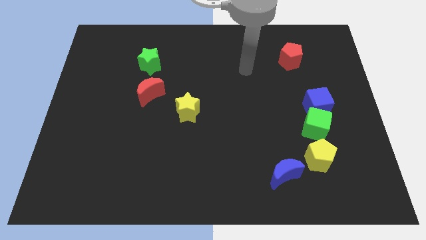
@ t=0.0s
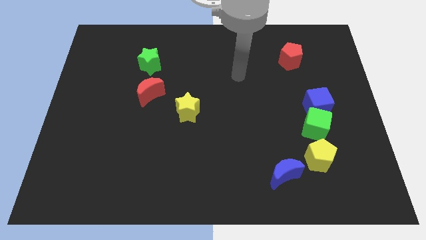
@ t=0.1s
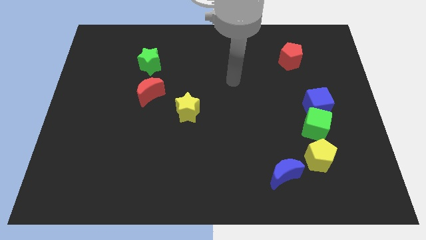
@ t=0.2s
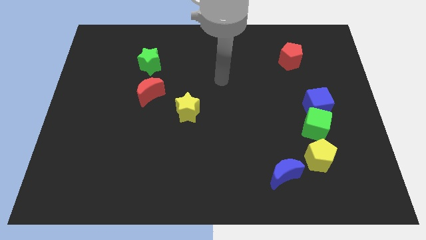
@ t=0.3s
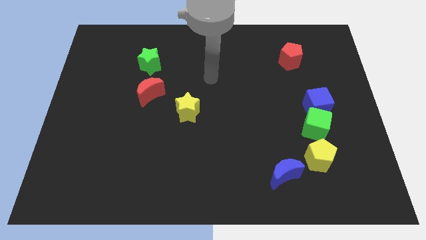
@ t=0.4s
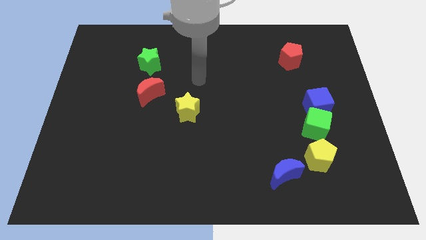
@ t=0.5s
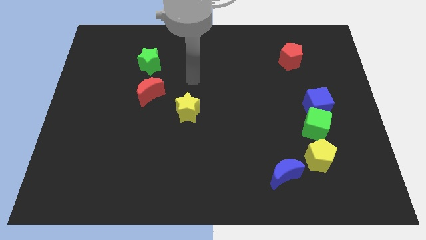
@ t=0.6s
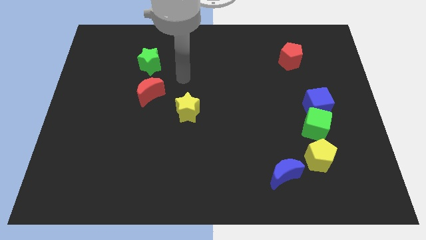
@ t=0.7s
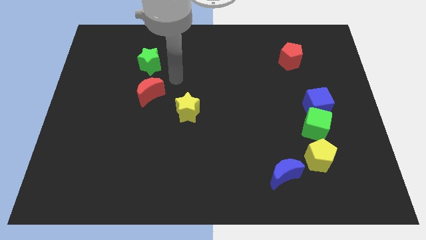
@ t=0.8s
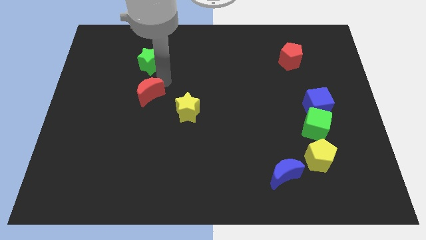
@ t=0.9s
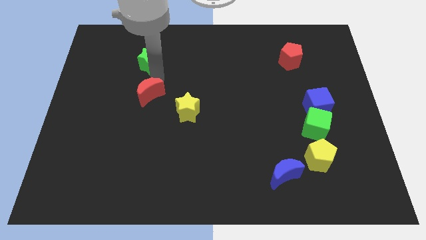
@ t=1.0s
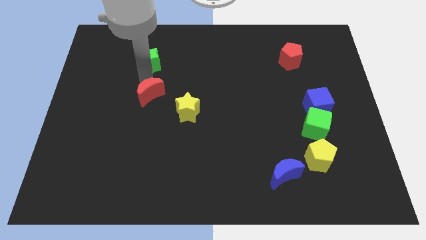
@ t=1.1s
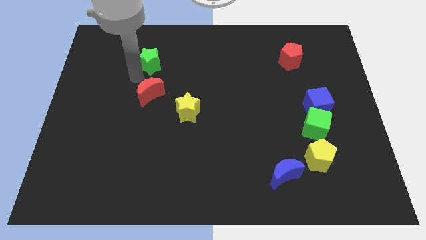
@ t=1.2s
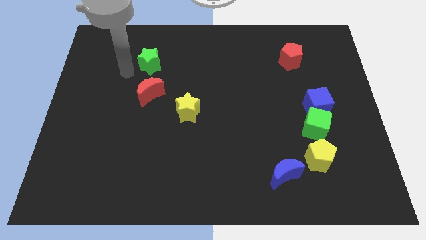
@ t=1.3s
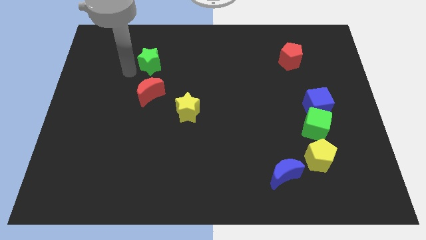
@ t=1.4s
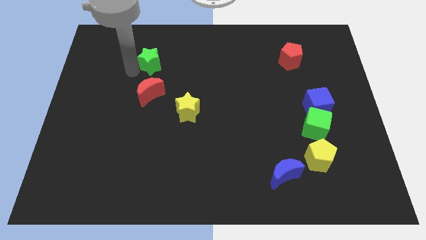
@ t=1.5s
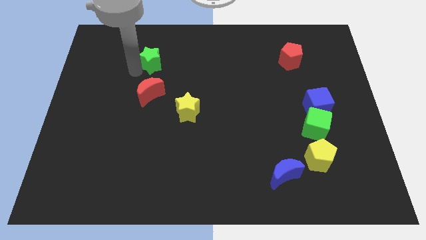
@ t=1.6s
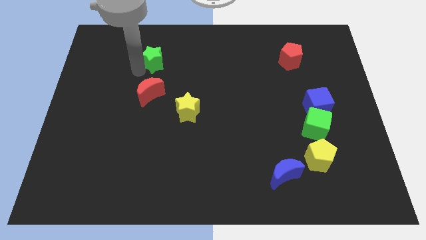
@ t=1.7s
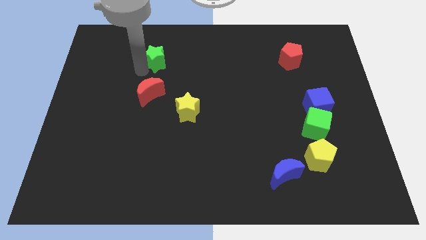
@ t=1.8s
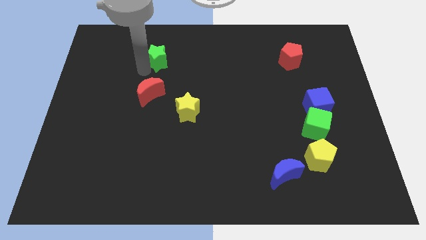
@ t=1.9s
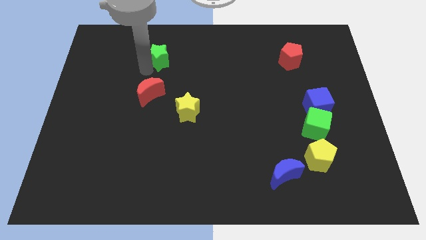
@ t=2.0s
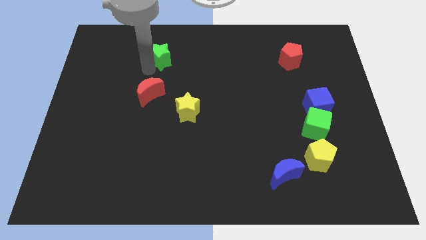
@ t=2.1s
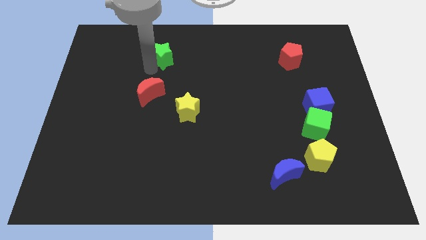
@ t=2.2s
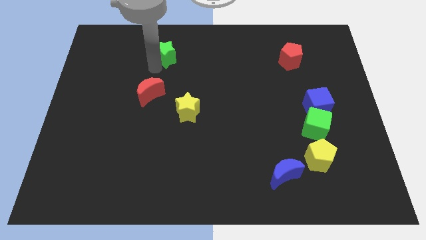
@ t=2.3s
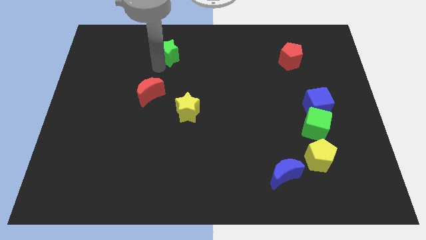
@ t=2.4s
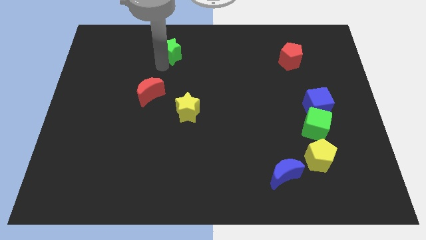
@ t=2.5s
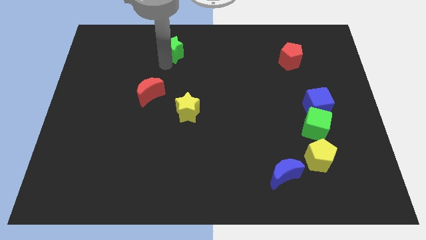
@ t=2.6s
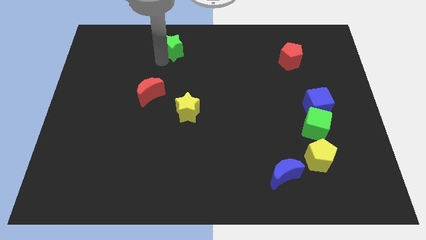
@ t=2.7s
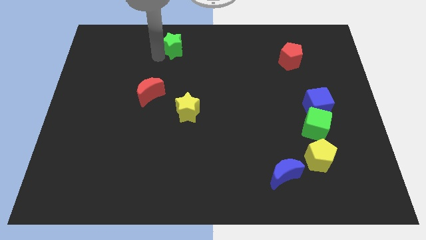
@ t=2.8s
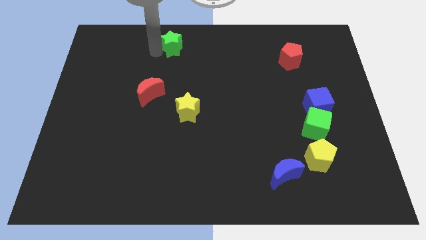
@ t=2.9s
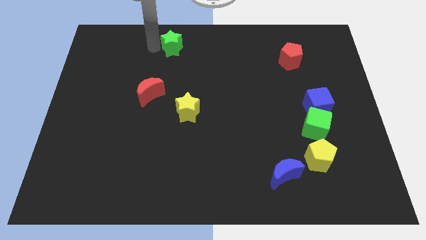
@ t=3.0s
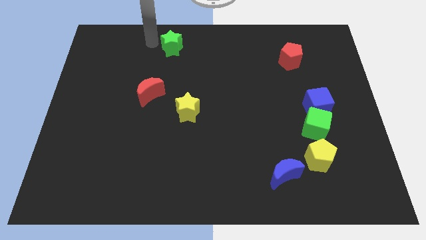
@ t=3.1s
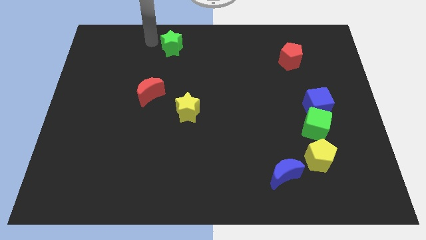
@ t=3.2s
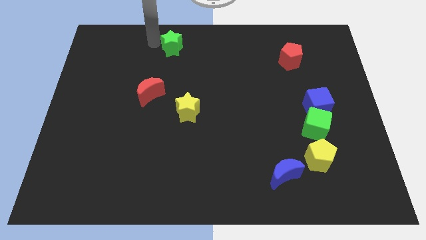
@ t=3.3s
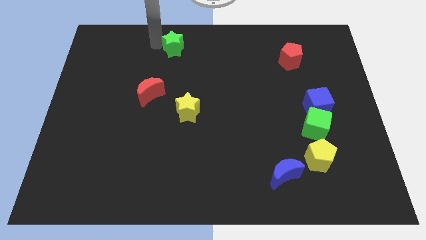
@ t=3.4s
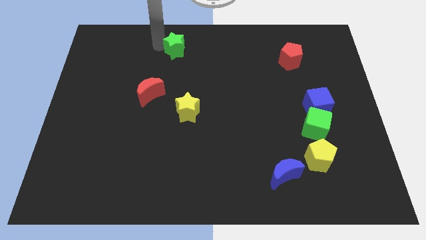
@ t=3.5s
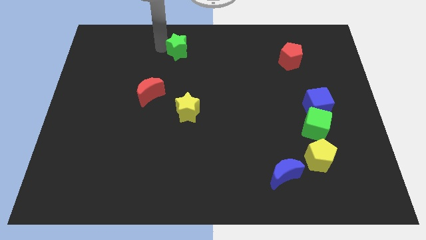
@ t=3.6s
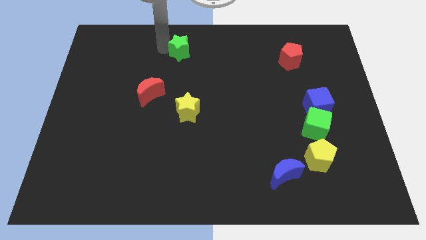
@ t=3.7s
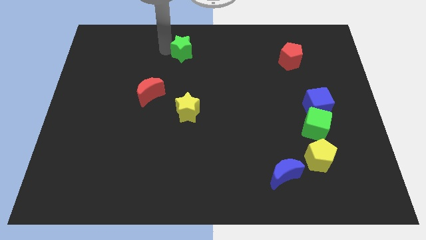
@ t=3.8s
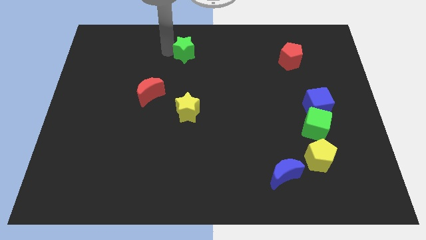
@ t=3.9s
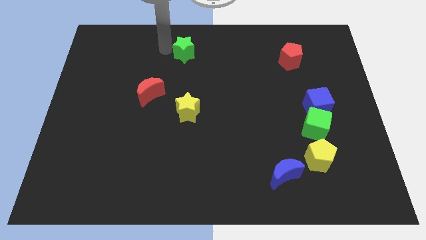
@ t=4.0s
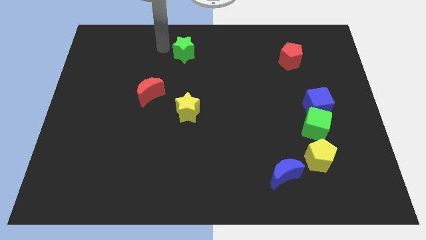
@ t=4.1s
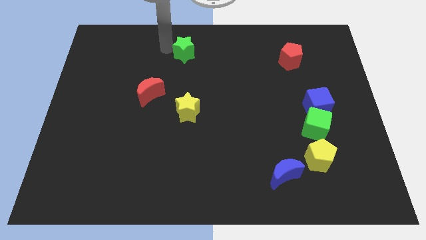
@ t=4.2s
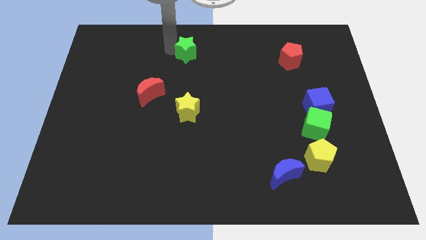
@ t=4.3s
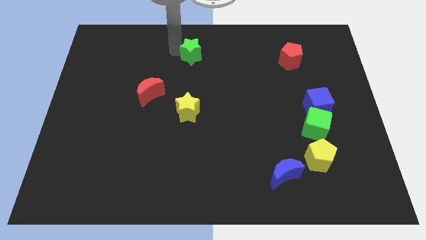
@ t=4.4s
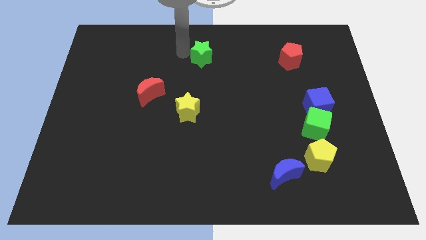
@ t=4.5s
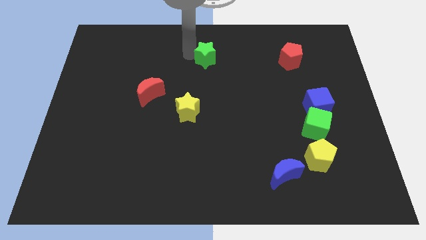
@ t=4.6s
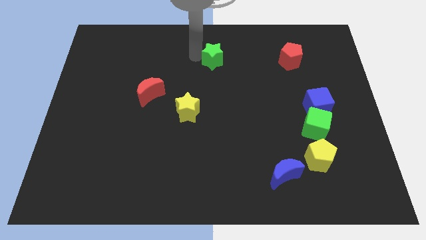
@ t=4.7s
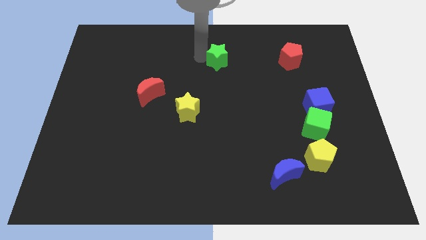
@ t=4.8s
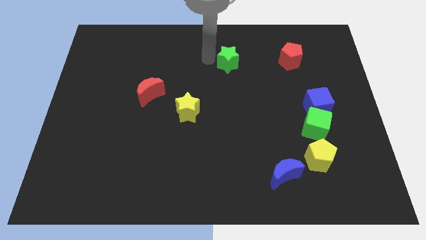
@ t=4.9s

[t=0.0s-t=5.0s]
slide the green star to the right

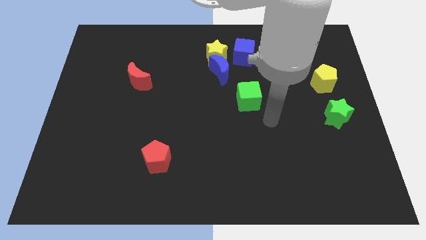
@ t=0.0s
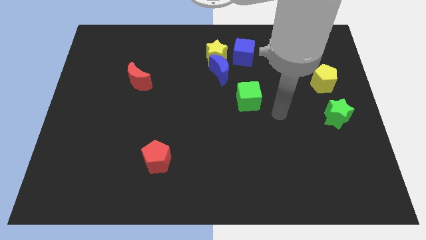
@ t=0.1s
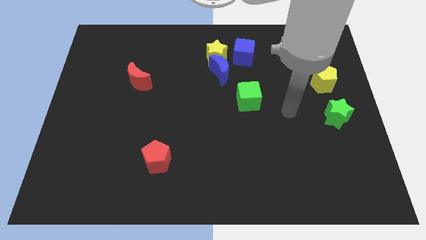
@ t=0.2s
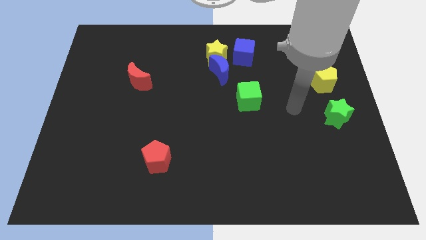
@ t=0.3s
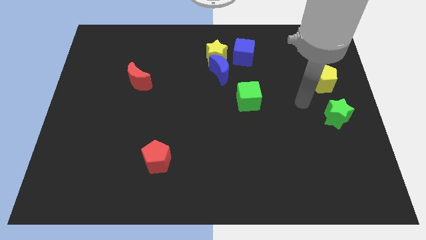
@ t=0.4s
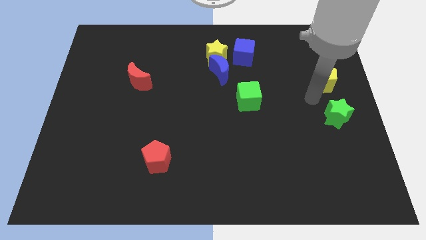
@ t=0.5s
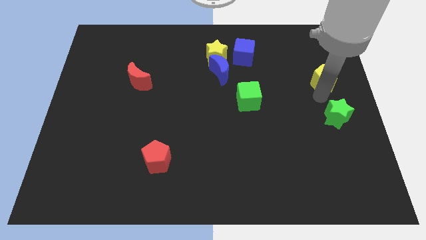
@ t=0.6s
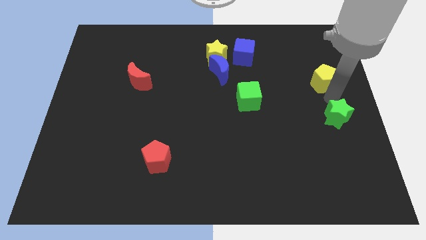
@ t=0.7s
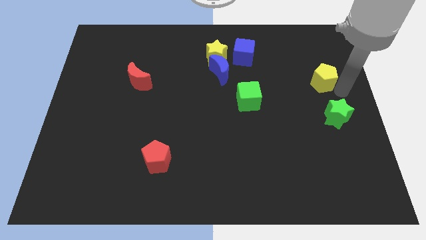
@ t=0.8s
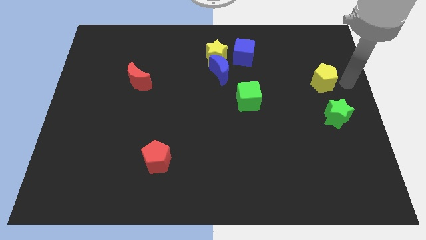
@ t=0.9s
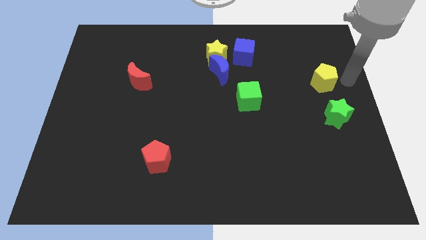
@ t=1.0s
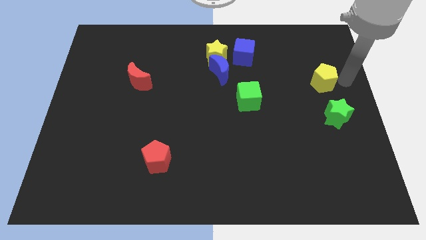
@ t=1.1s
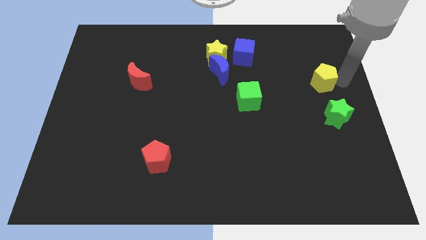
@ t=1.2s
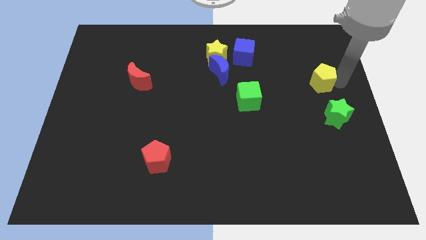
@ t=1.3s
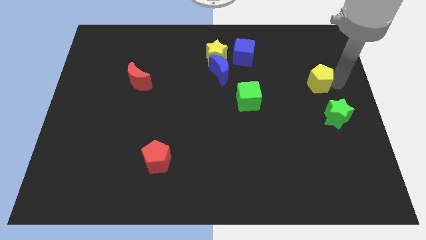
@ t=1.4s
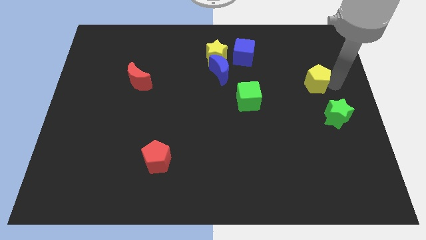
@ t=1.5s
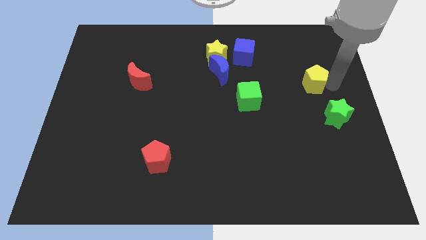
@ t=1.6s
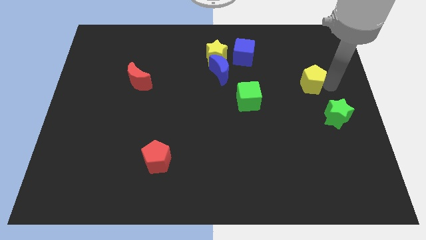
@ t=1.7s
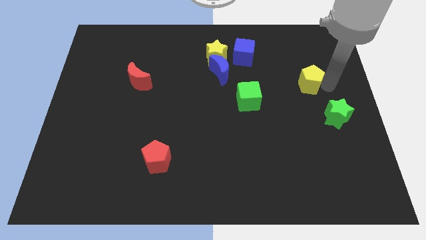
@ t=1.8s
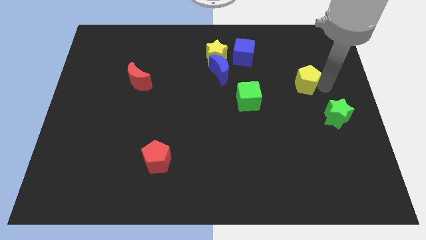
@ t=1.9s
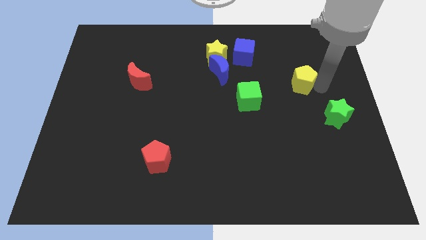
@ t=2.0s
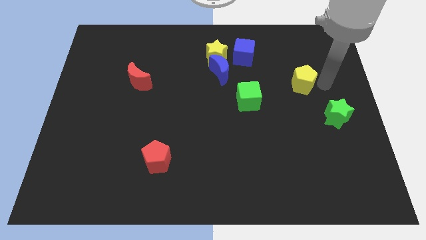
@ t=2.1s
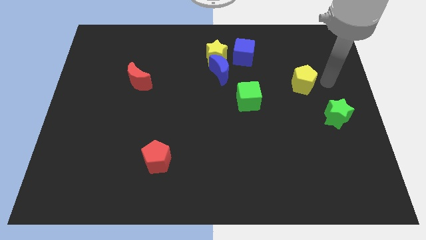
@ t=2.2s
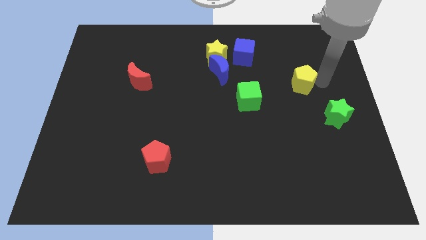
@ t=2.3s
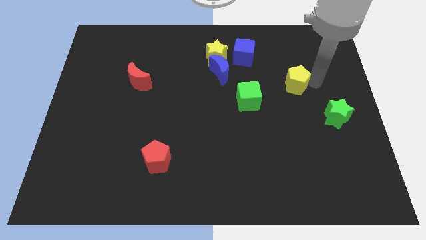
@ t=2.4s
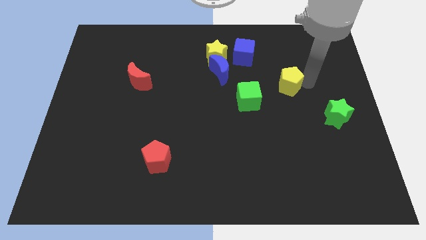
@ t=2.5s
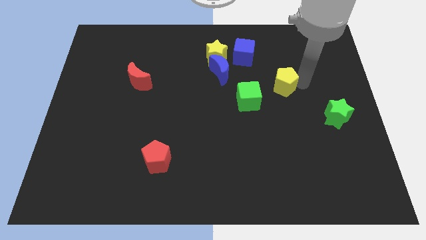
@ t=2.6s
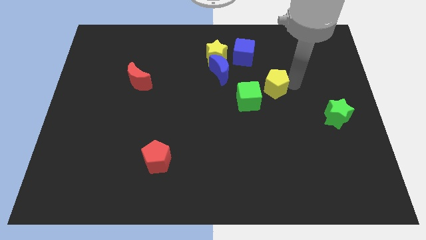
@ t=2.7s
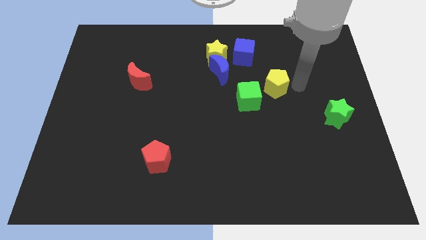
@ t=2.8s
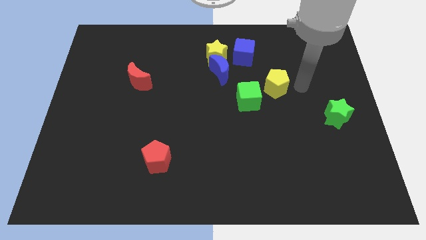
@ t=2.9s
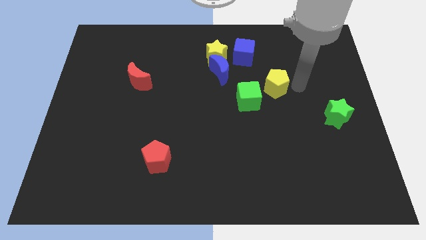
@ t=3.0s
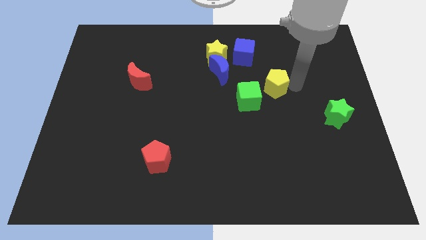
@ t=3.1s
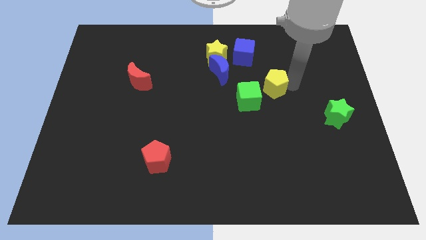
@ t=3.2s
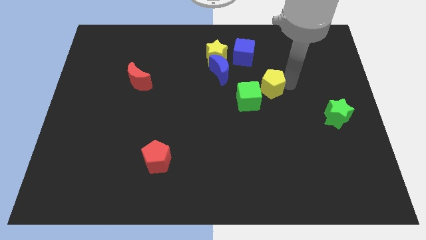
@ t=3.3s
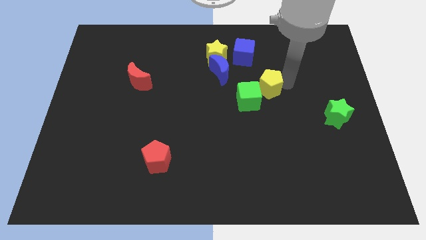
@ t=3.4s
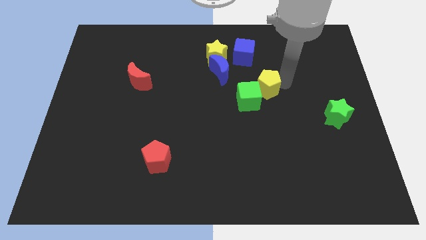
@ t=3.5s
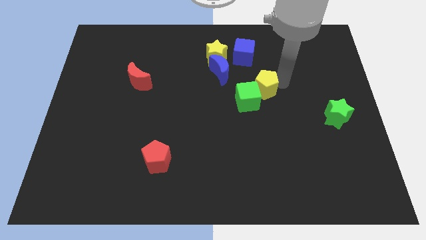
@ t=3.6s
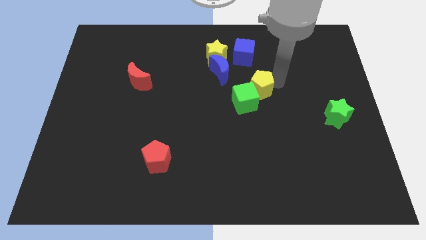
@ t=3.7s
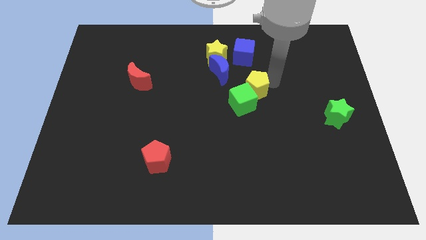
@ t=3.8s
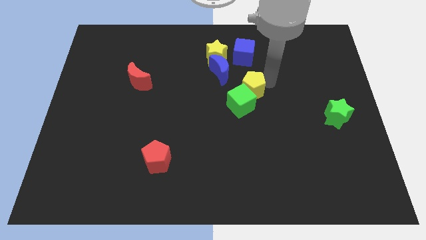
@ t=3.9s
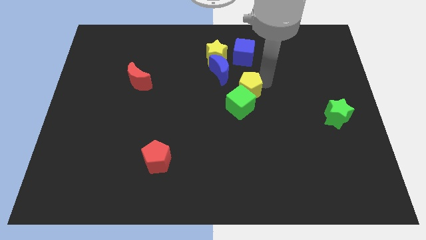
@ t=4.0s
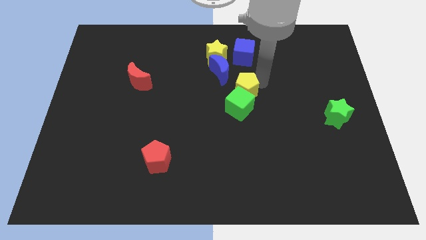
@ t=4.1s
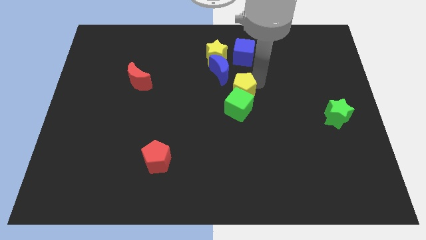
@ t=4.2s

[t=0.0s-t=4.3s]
move the yellow pentagon to the left
